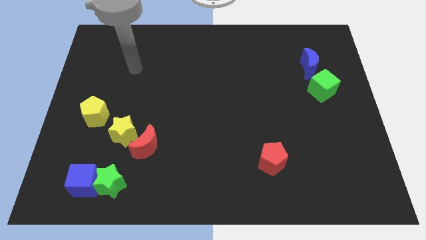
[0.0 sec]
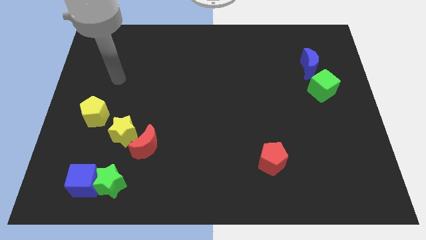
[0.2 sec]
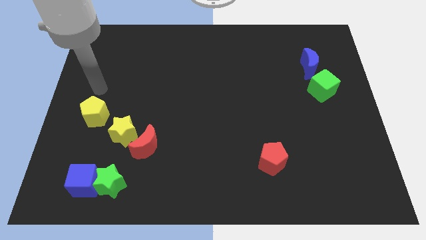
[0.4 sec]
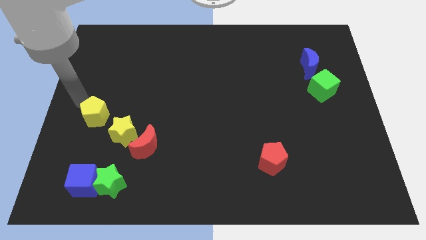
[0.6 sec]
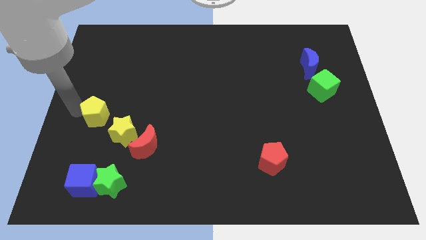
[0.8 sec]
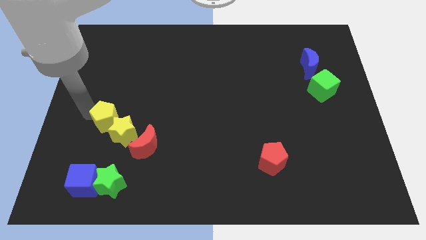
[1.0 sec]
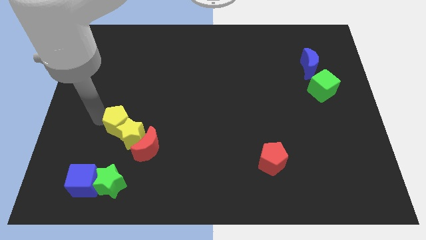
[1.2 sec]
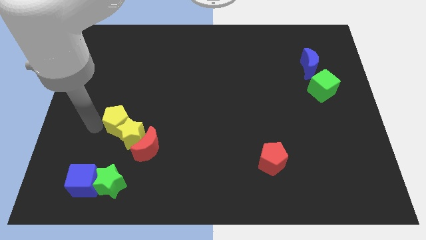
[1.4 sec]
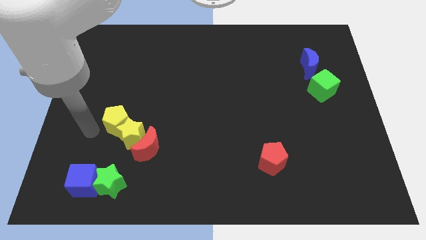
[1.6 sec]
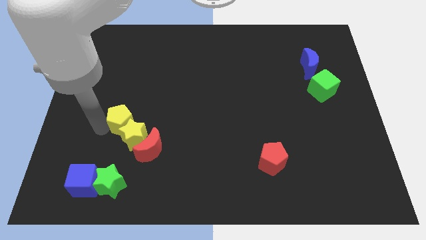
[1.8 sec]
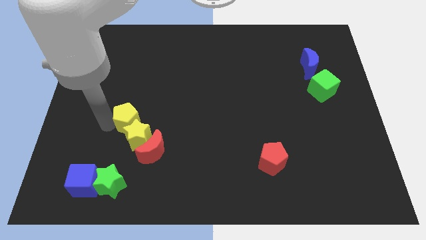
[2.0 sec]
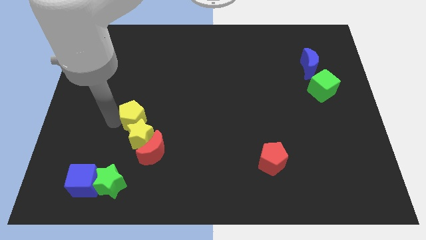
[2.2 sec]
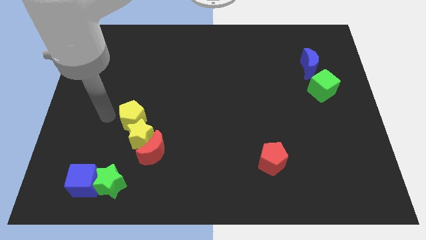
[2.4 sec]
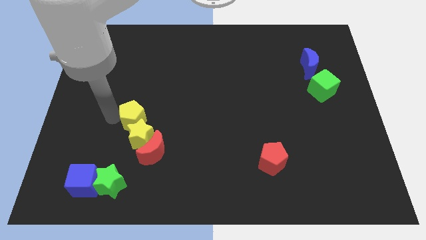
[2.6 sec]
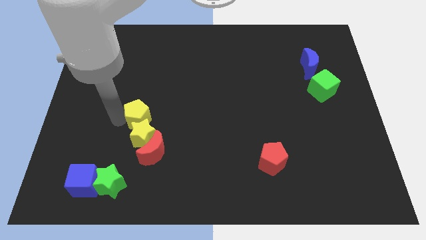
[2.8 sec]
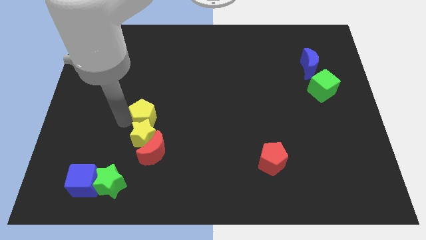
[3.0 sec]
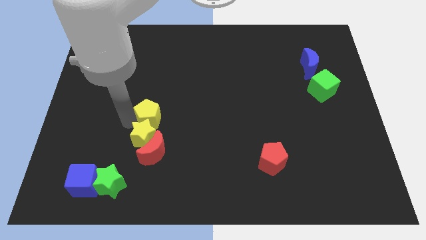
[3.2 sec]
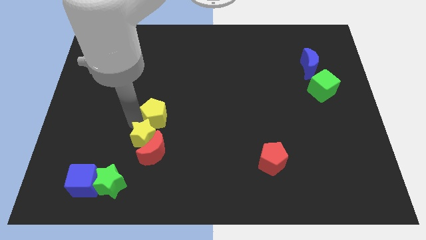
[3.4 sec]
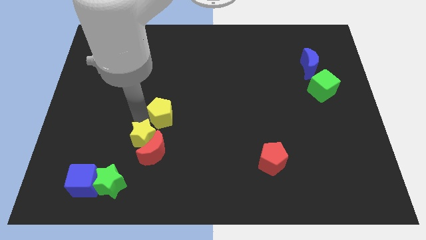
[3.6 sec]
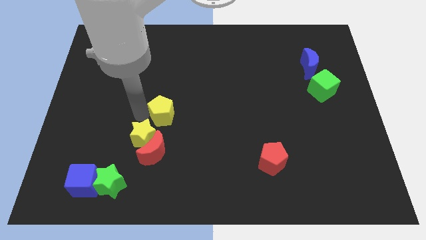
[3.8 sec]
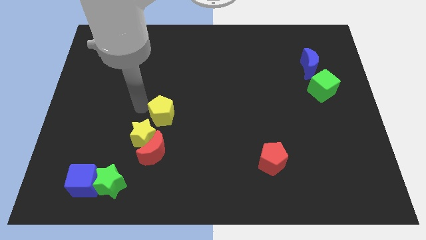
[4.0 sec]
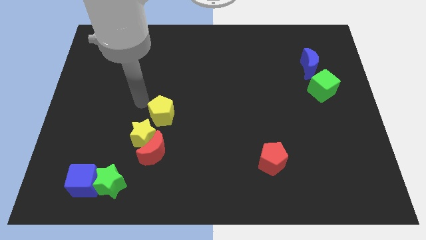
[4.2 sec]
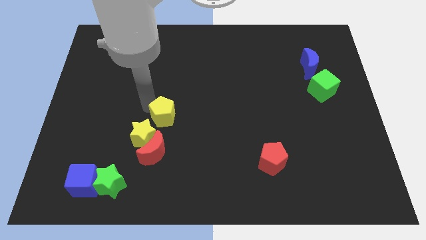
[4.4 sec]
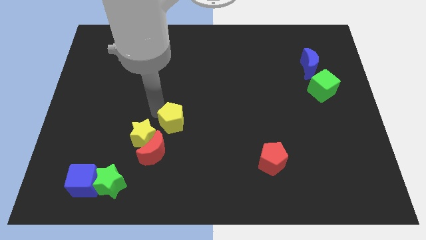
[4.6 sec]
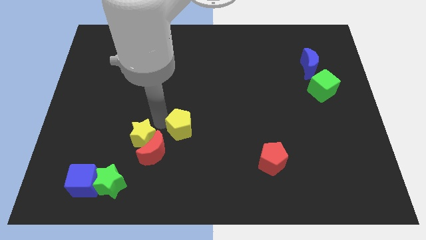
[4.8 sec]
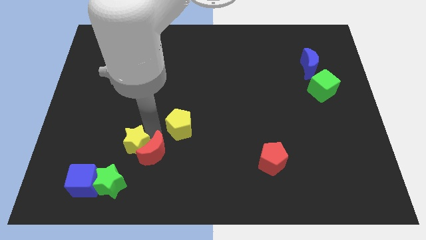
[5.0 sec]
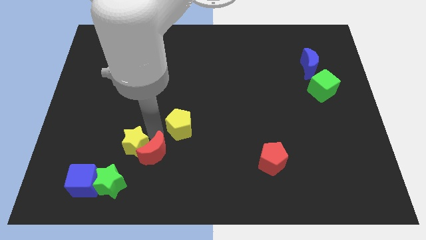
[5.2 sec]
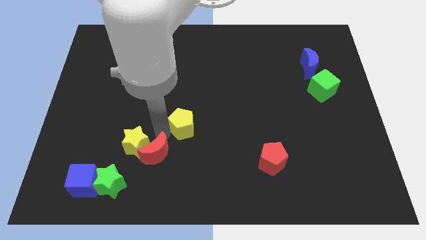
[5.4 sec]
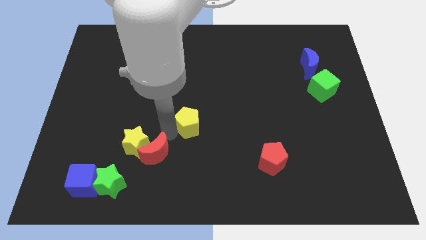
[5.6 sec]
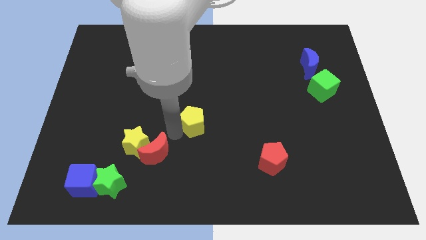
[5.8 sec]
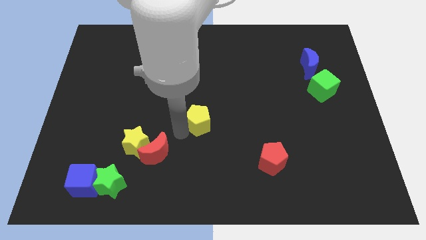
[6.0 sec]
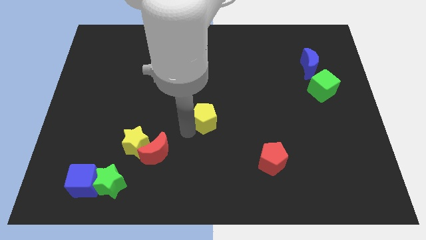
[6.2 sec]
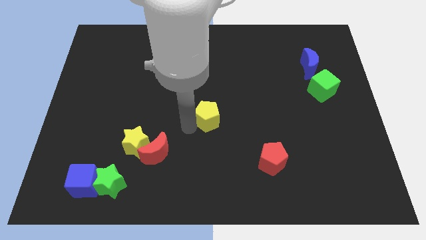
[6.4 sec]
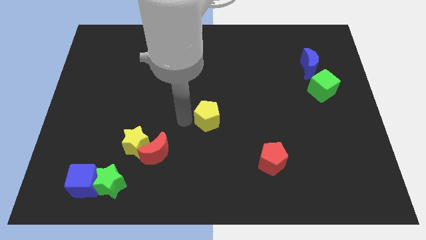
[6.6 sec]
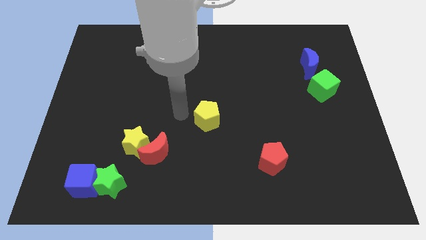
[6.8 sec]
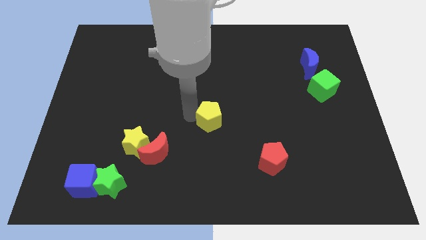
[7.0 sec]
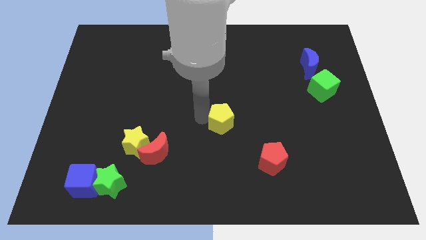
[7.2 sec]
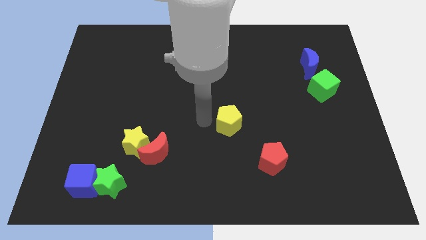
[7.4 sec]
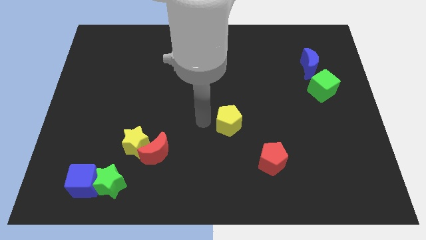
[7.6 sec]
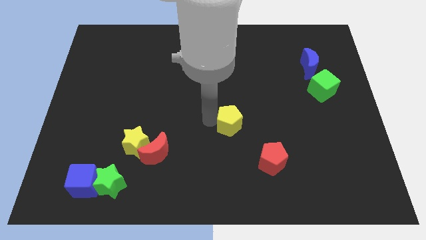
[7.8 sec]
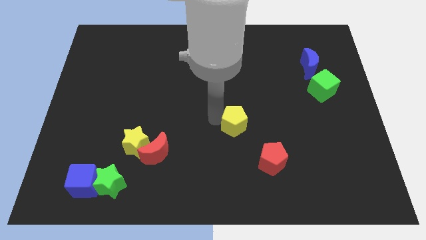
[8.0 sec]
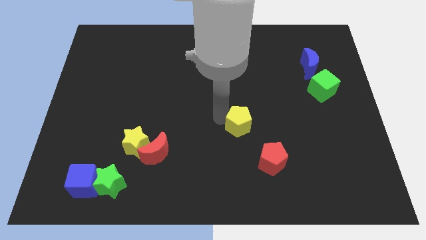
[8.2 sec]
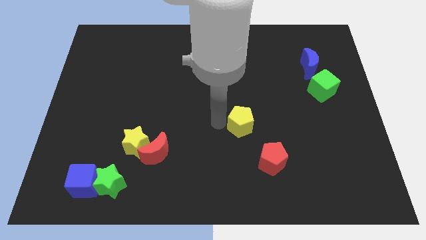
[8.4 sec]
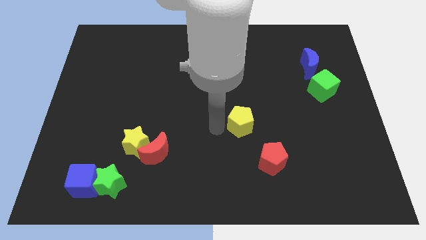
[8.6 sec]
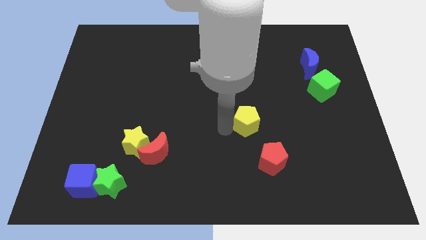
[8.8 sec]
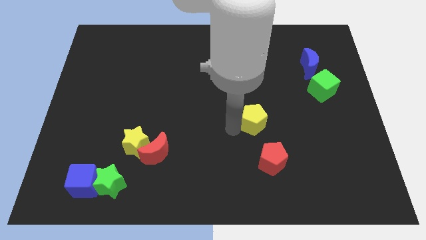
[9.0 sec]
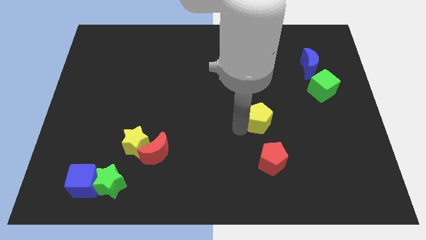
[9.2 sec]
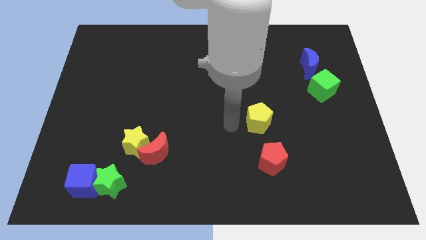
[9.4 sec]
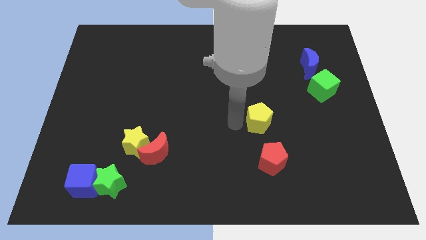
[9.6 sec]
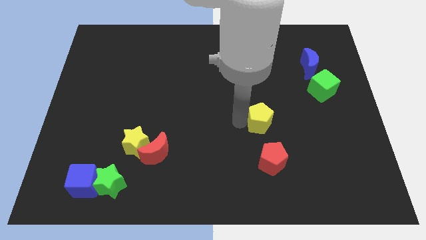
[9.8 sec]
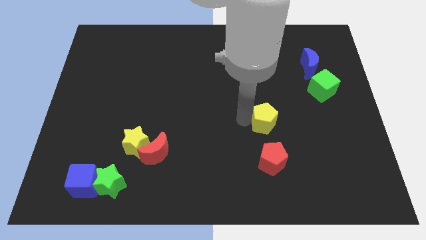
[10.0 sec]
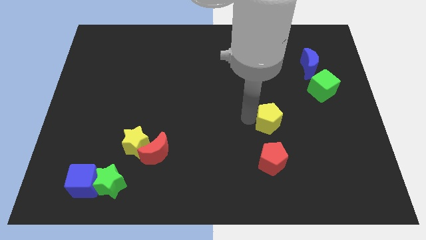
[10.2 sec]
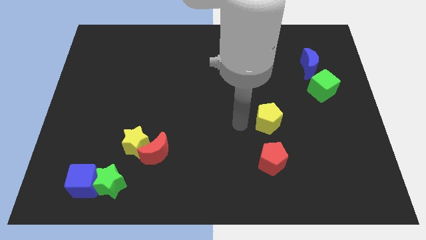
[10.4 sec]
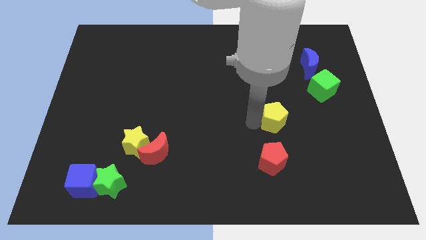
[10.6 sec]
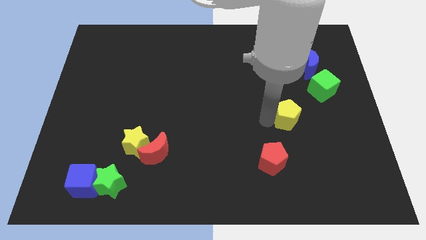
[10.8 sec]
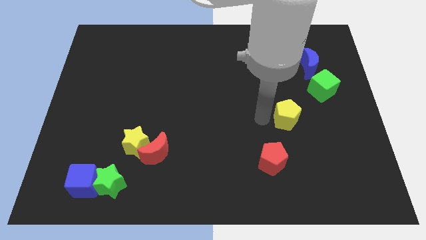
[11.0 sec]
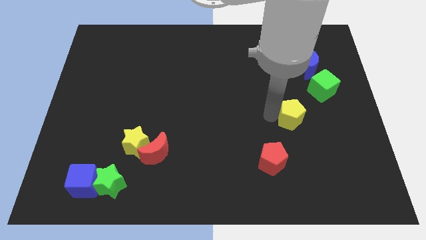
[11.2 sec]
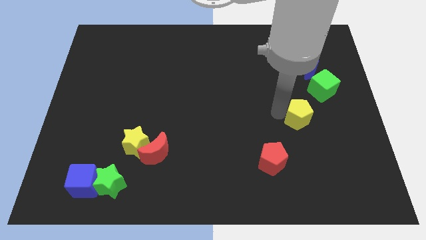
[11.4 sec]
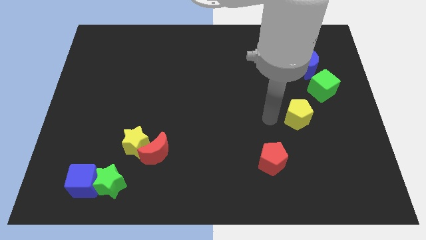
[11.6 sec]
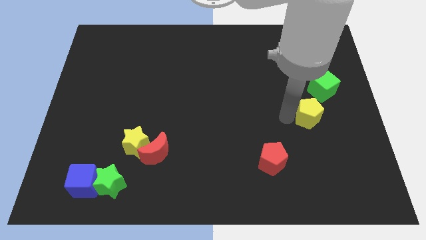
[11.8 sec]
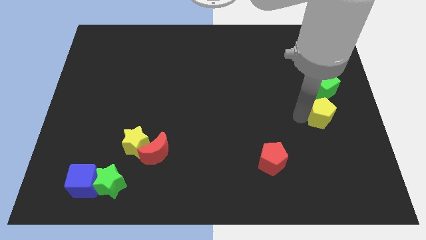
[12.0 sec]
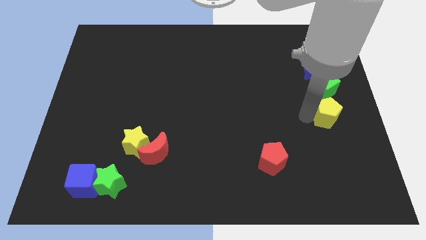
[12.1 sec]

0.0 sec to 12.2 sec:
put the yellow pentagon to the center right
